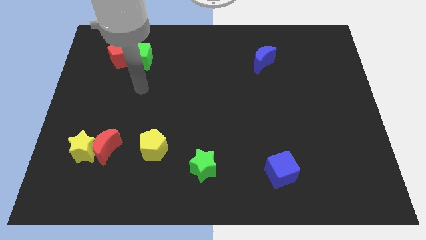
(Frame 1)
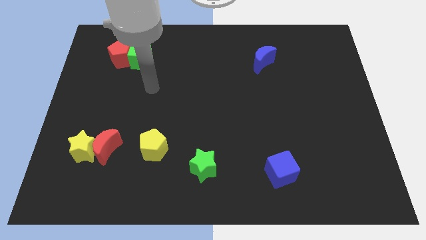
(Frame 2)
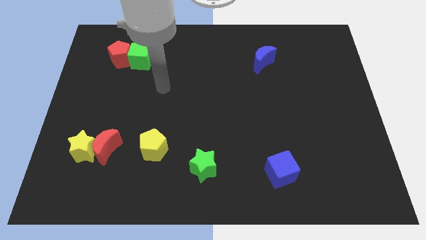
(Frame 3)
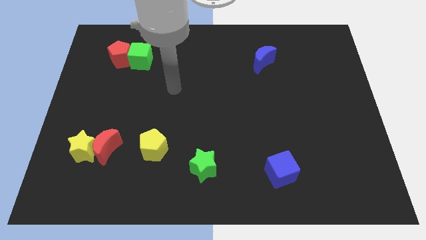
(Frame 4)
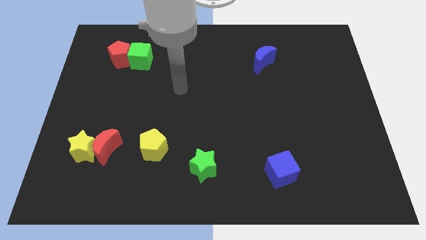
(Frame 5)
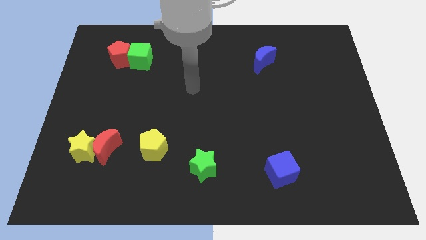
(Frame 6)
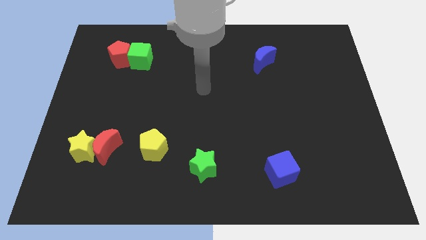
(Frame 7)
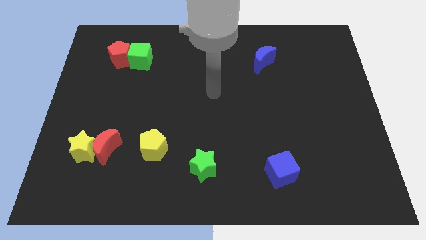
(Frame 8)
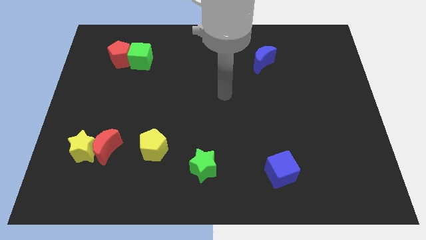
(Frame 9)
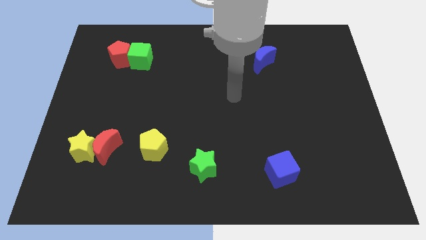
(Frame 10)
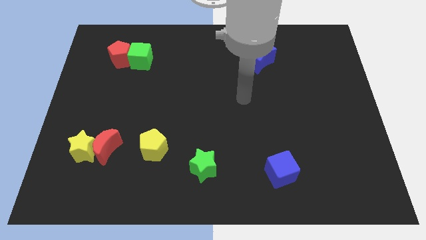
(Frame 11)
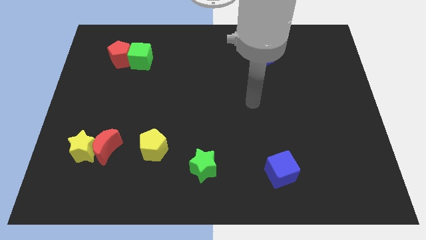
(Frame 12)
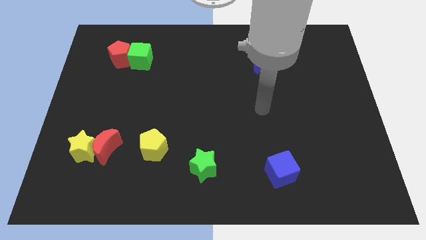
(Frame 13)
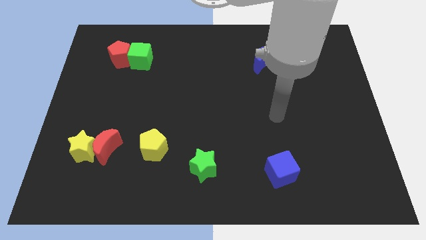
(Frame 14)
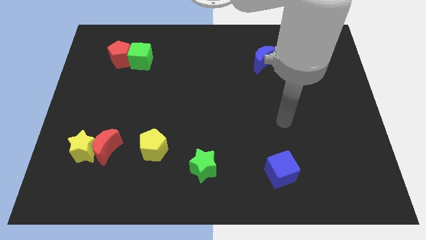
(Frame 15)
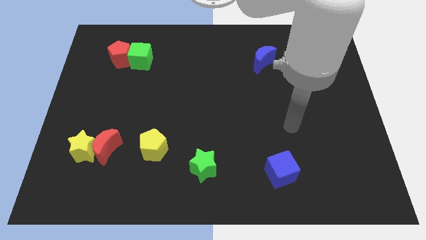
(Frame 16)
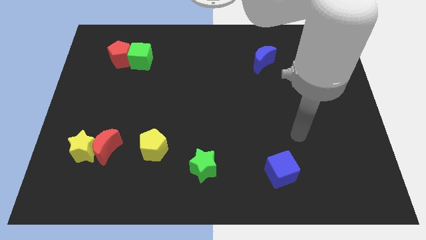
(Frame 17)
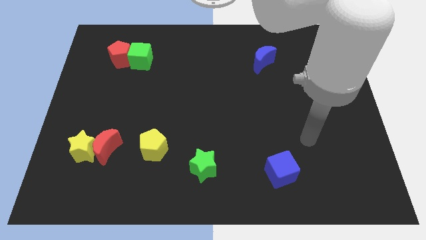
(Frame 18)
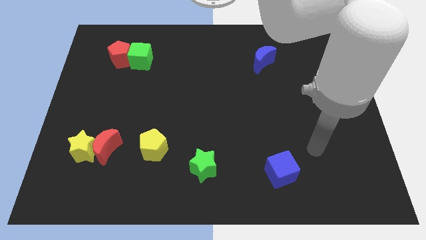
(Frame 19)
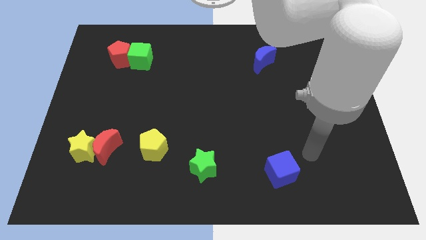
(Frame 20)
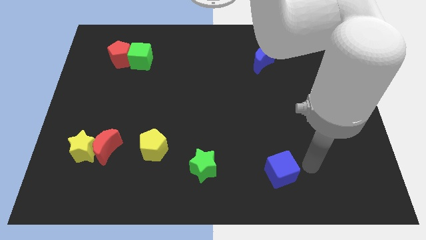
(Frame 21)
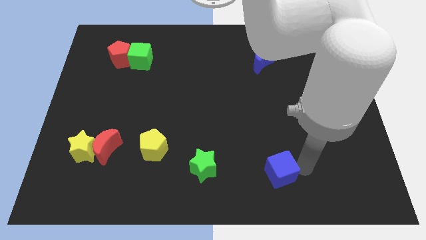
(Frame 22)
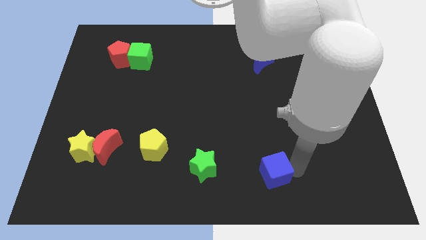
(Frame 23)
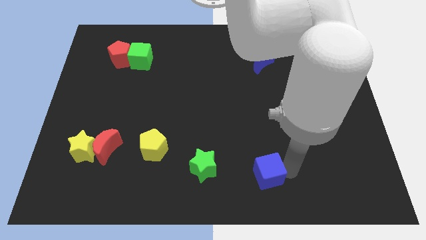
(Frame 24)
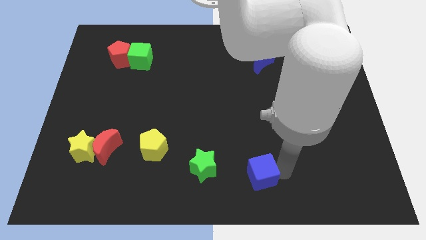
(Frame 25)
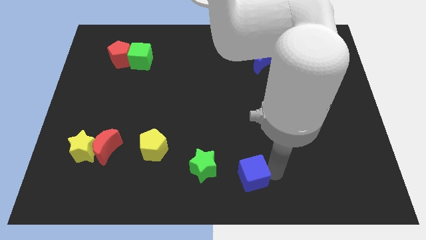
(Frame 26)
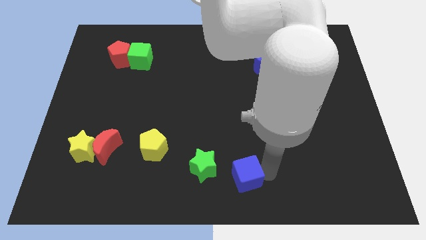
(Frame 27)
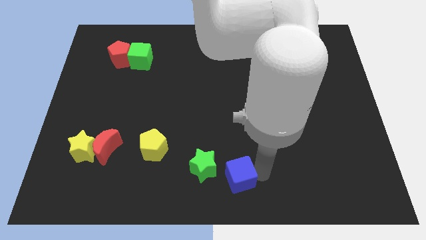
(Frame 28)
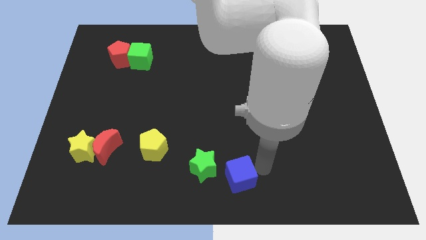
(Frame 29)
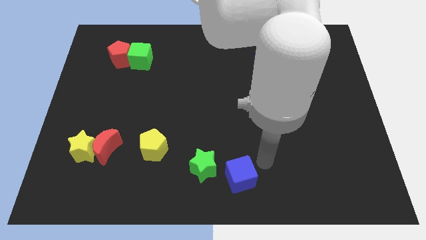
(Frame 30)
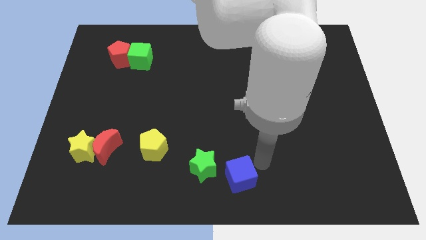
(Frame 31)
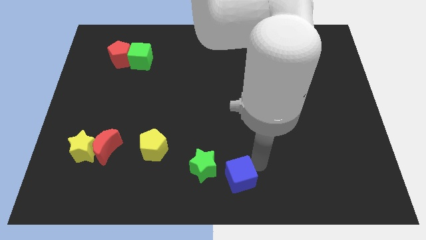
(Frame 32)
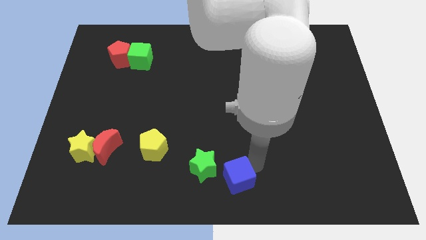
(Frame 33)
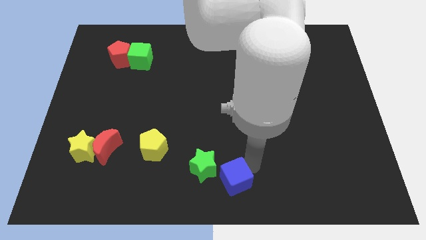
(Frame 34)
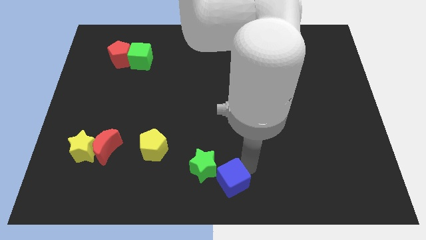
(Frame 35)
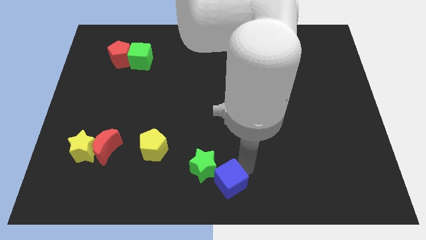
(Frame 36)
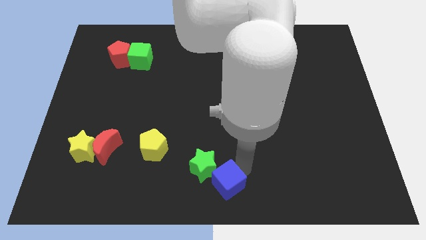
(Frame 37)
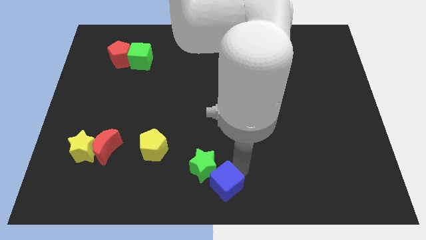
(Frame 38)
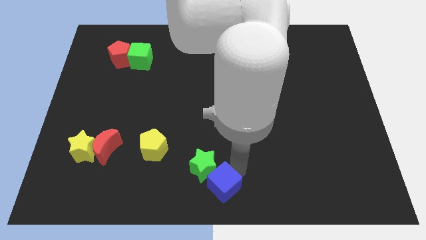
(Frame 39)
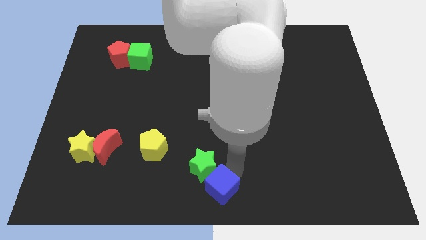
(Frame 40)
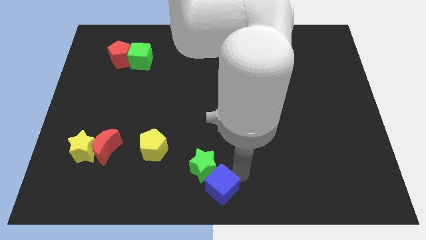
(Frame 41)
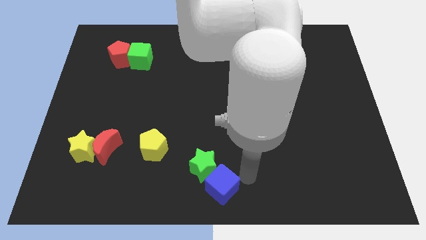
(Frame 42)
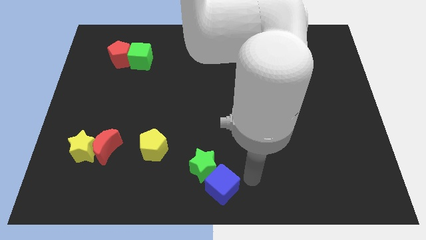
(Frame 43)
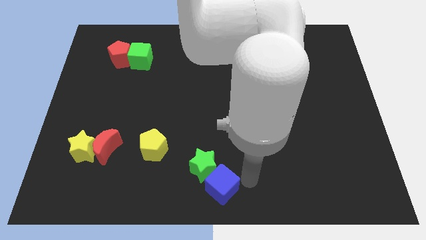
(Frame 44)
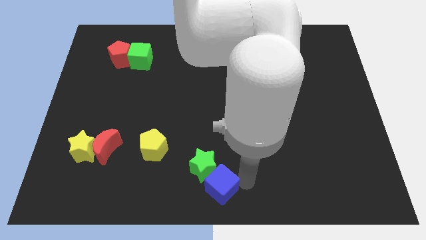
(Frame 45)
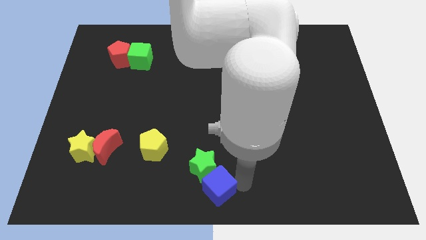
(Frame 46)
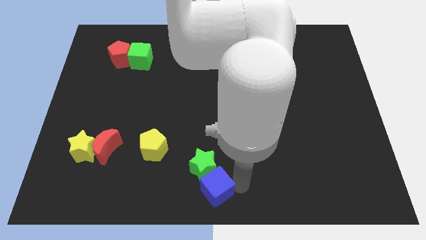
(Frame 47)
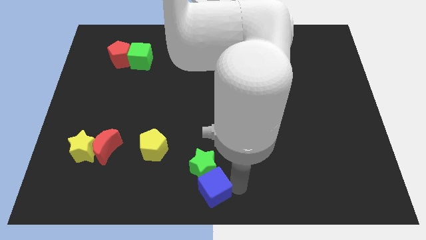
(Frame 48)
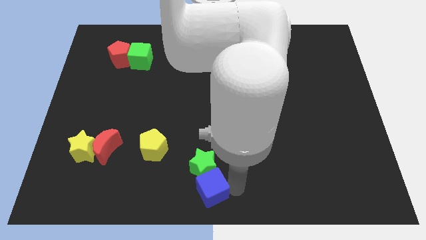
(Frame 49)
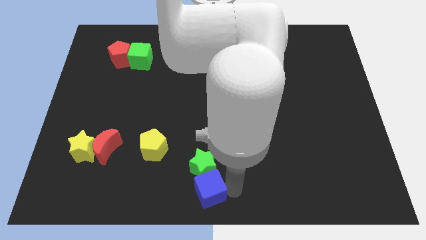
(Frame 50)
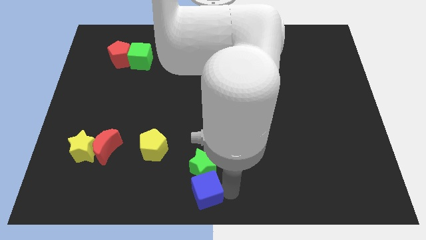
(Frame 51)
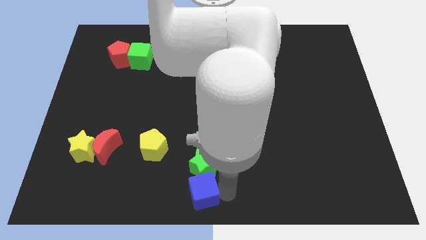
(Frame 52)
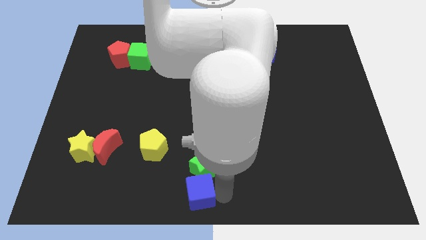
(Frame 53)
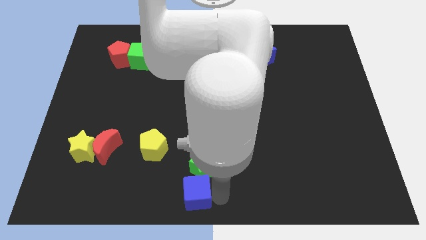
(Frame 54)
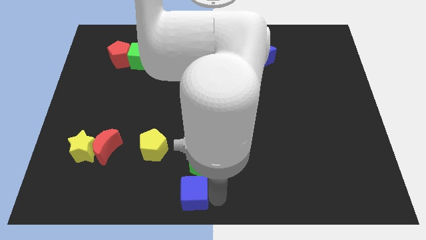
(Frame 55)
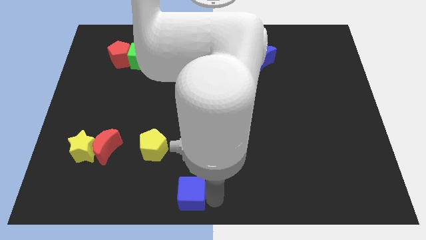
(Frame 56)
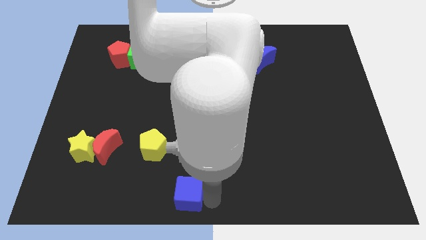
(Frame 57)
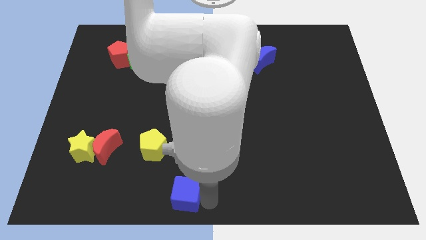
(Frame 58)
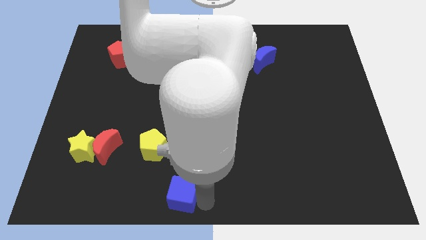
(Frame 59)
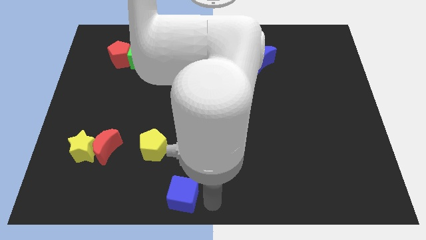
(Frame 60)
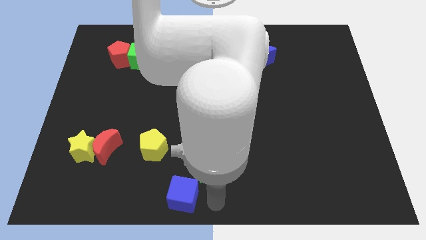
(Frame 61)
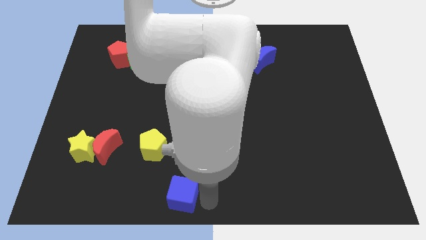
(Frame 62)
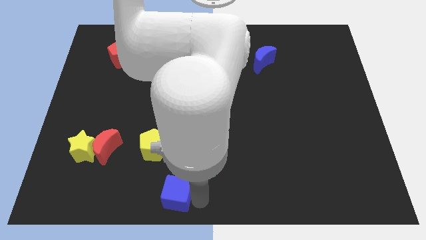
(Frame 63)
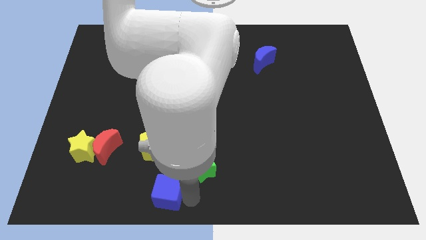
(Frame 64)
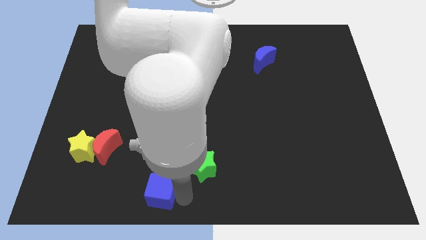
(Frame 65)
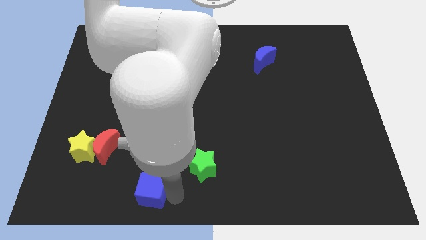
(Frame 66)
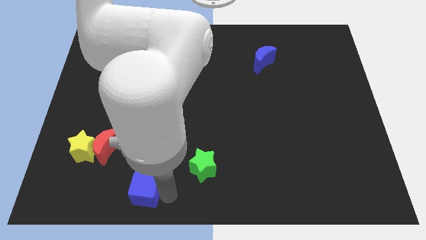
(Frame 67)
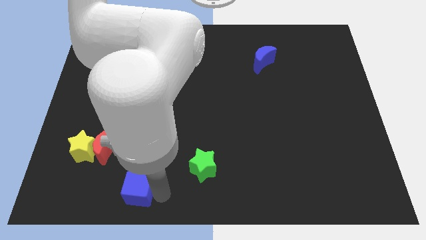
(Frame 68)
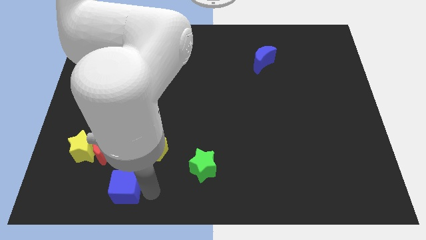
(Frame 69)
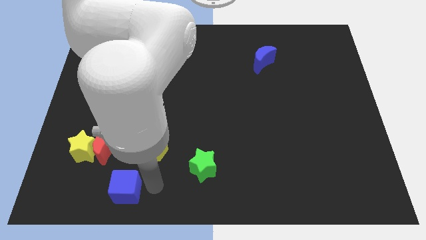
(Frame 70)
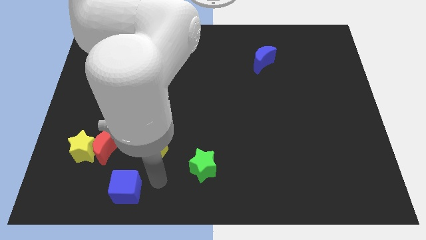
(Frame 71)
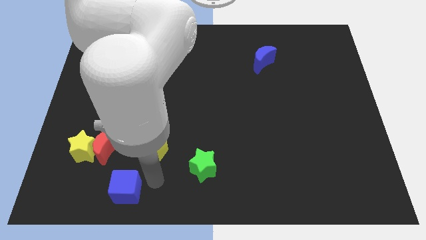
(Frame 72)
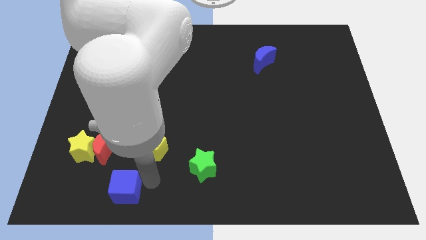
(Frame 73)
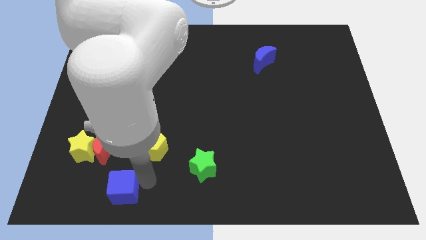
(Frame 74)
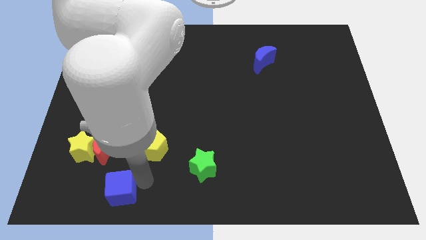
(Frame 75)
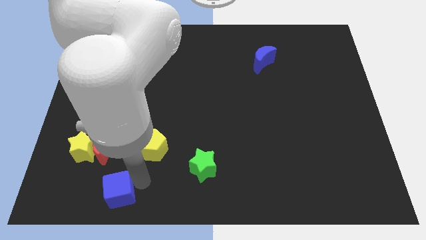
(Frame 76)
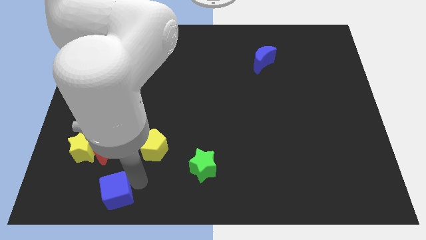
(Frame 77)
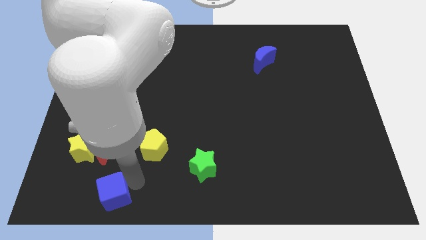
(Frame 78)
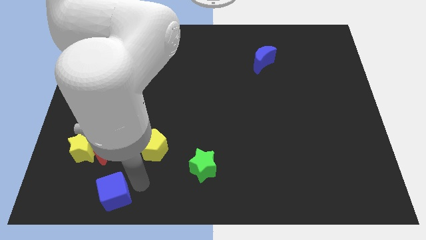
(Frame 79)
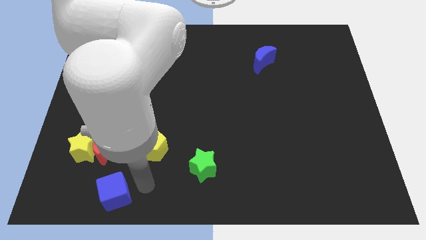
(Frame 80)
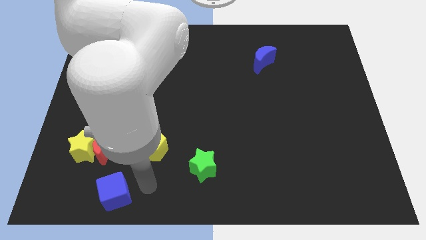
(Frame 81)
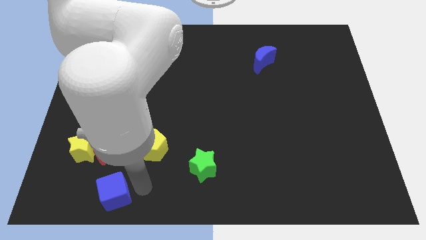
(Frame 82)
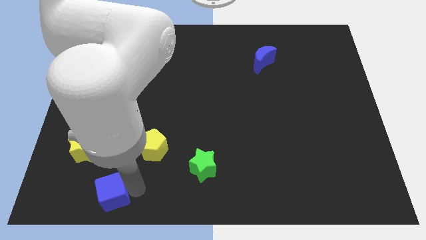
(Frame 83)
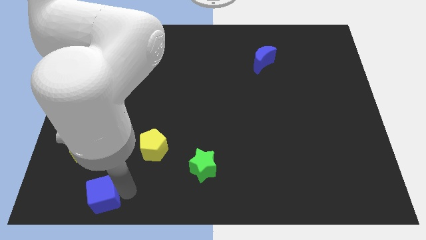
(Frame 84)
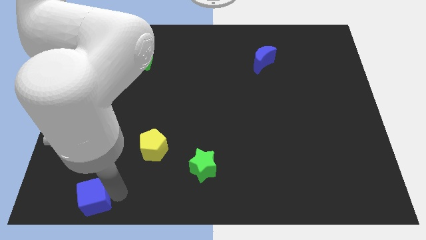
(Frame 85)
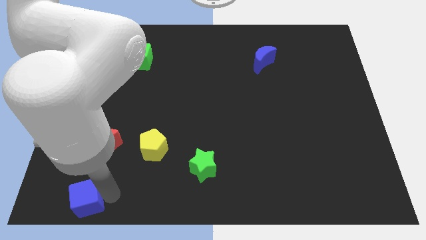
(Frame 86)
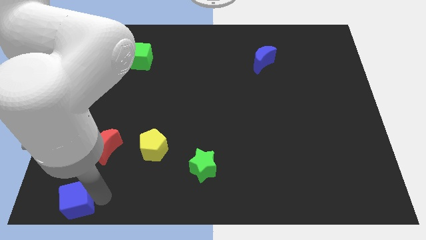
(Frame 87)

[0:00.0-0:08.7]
push the blue cube to the bottom left of the board
